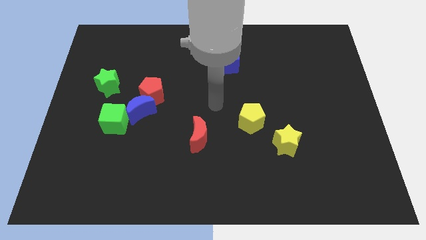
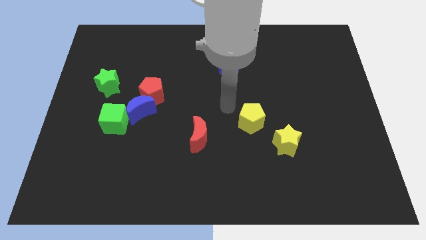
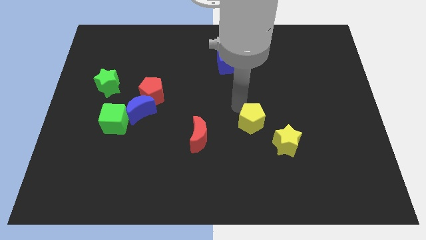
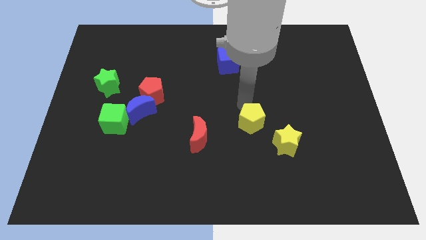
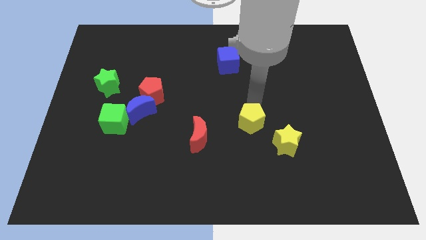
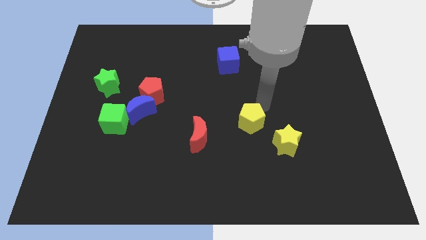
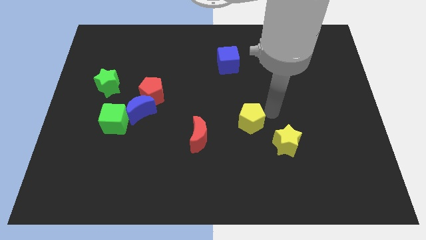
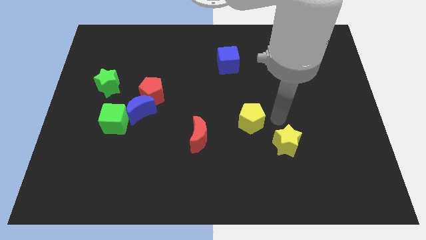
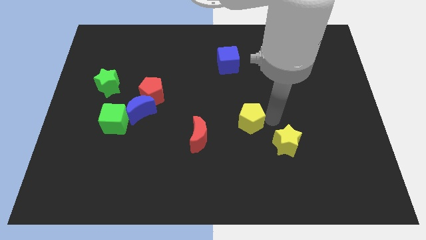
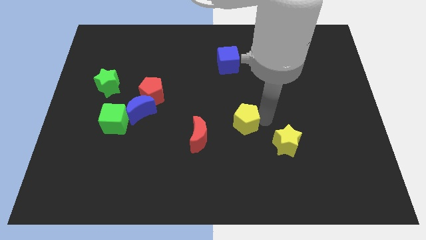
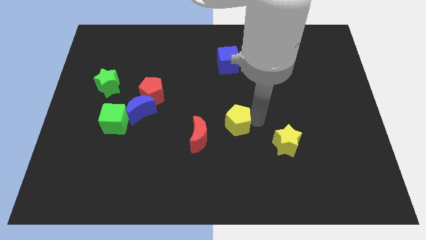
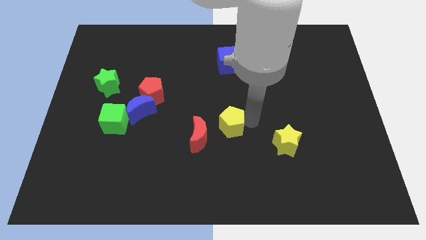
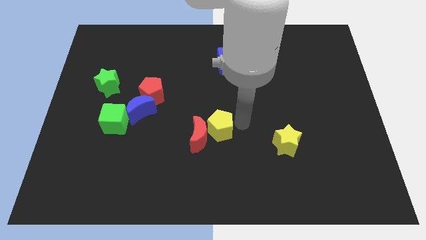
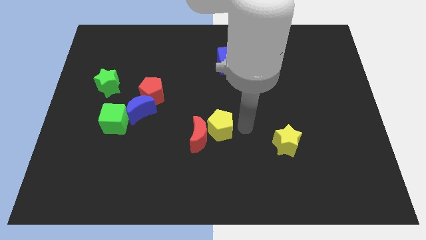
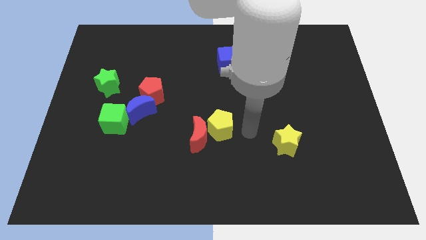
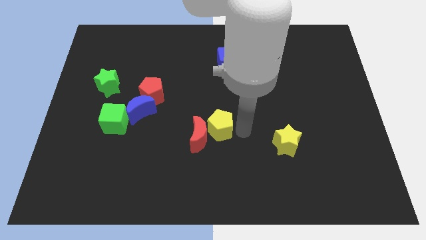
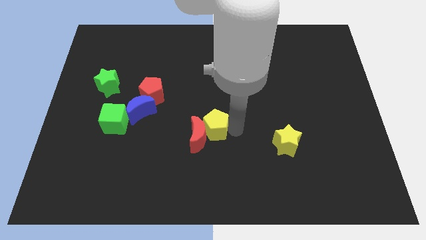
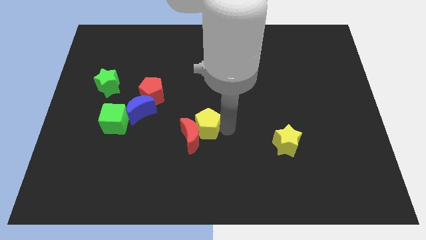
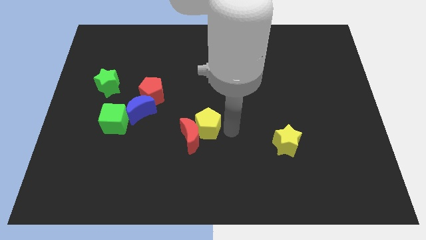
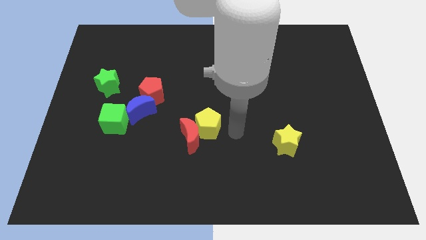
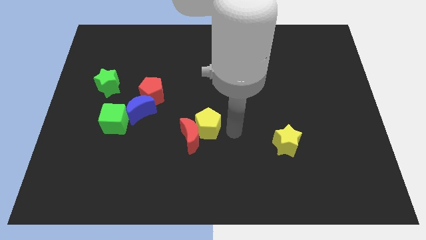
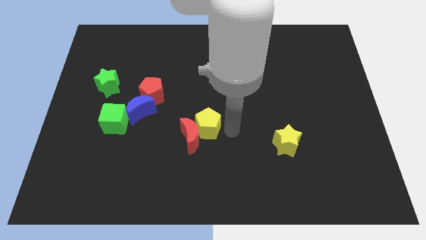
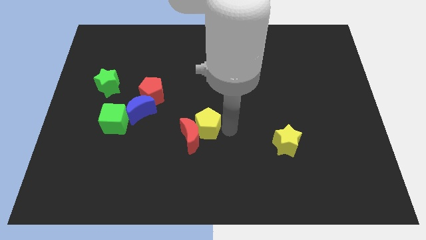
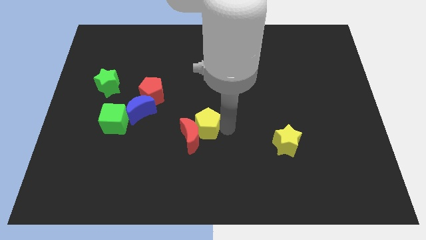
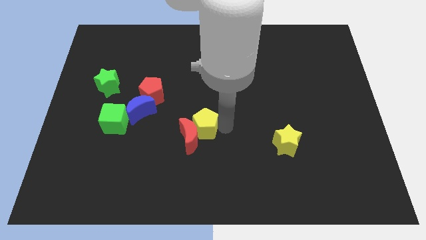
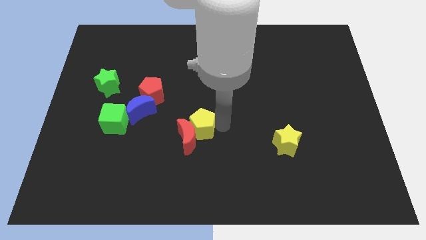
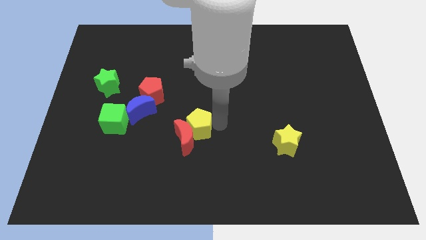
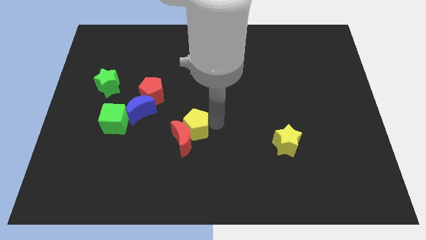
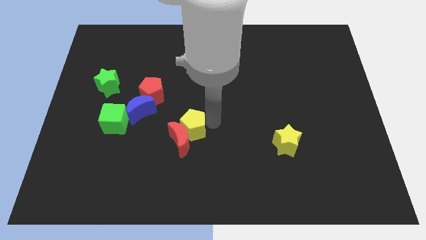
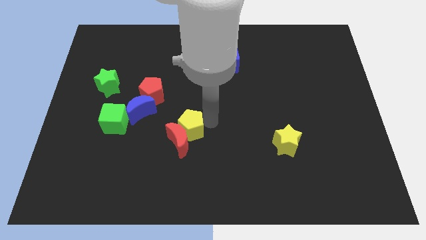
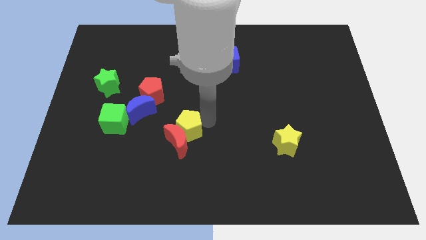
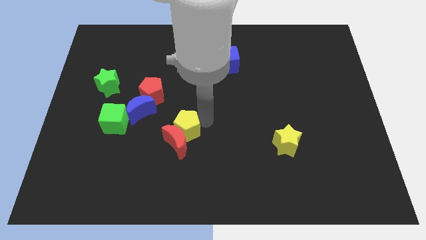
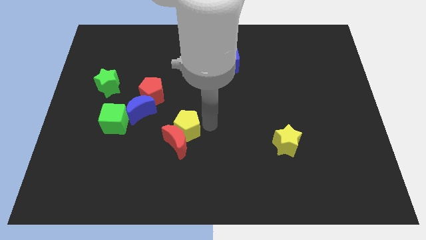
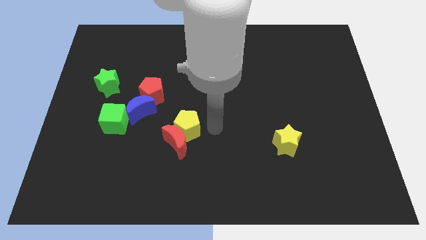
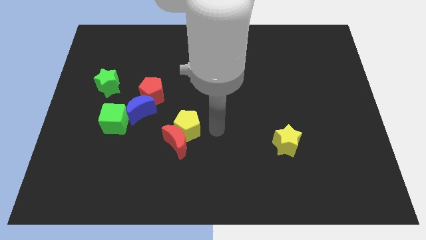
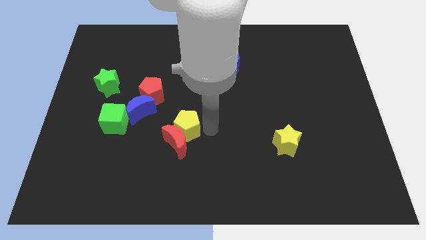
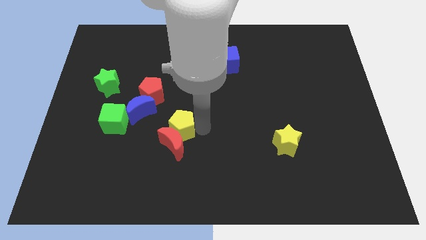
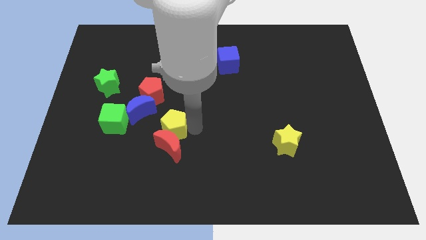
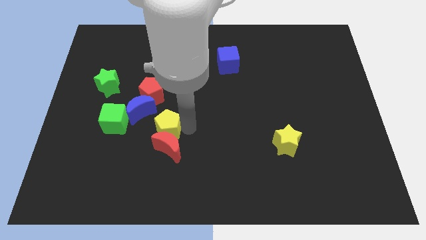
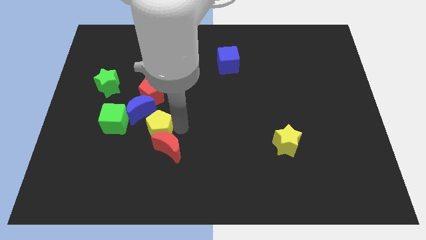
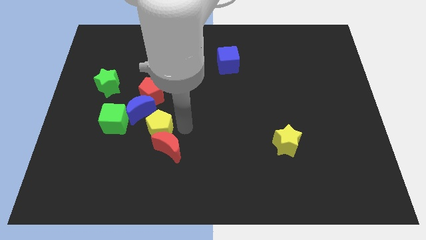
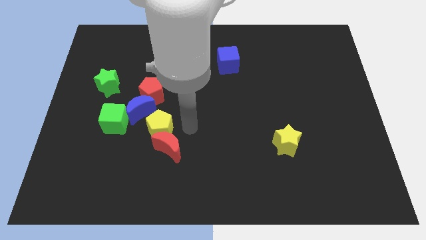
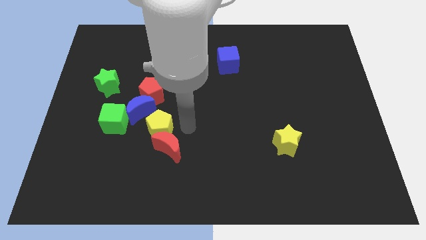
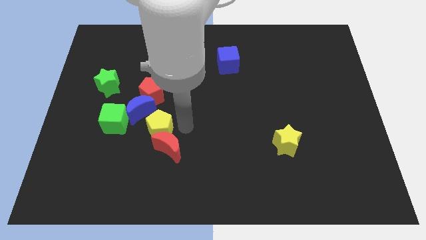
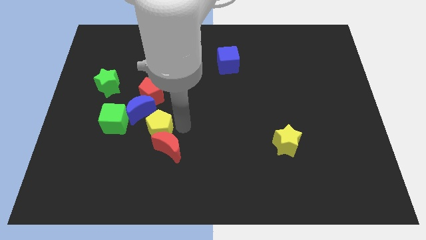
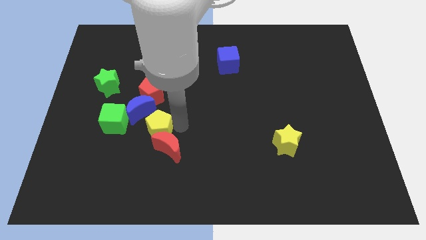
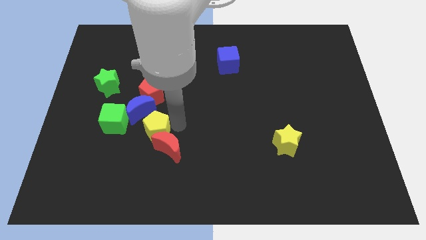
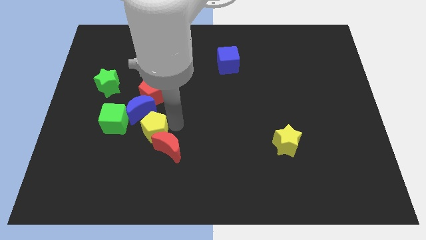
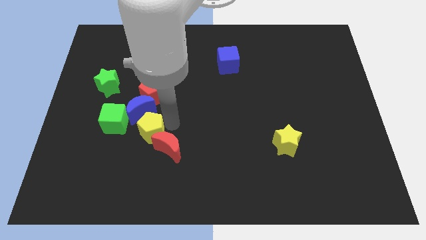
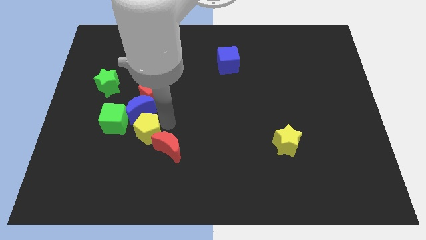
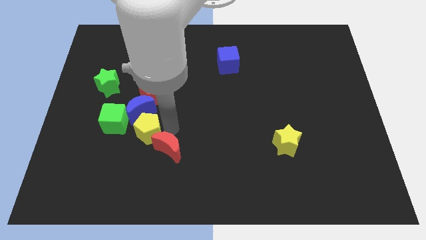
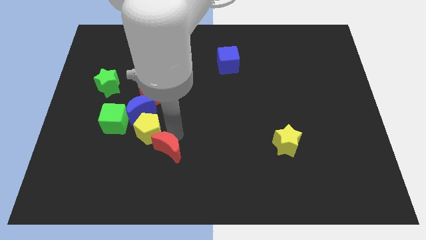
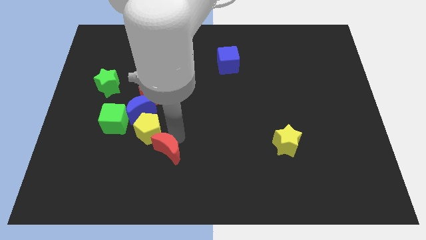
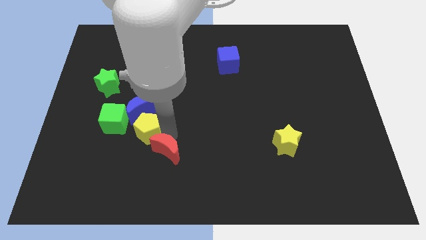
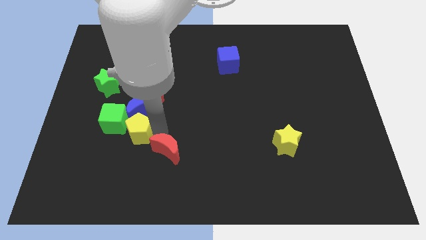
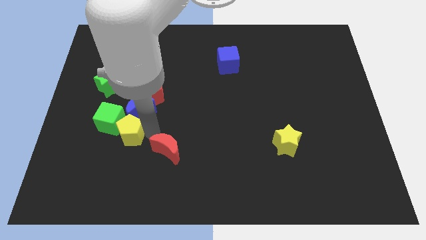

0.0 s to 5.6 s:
slide the yellow pentagon to the green cube

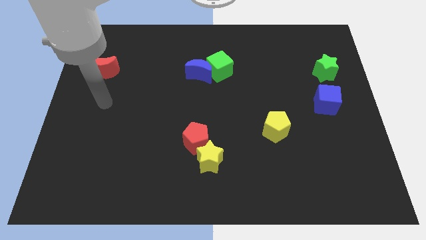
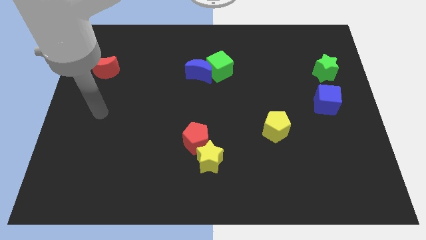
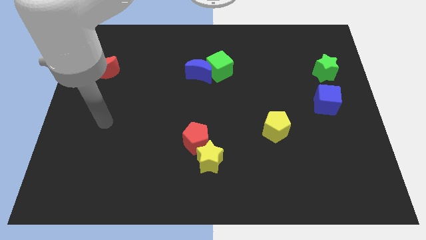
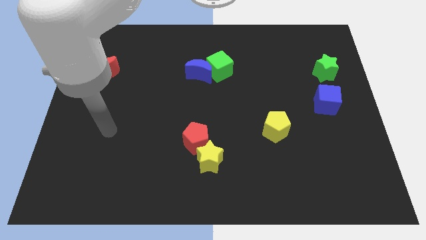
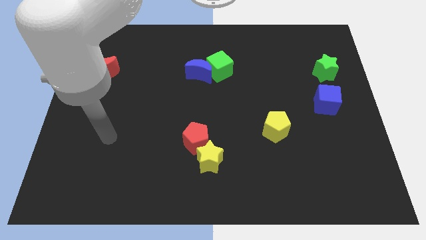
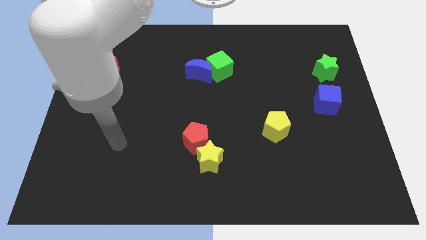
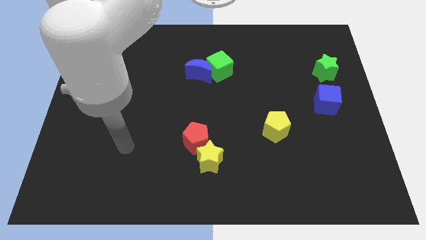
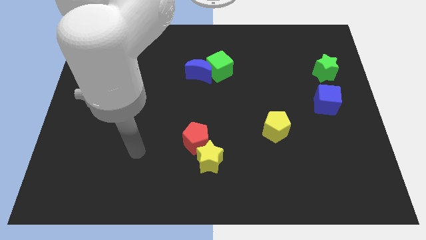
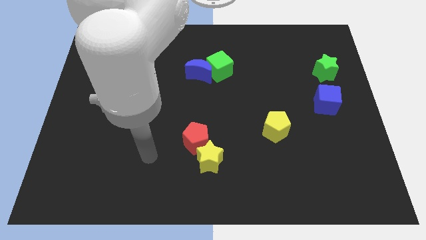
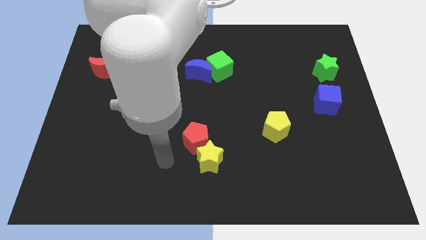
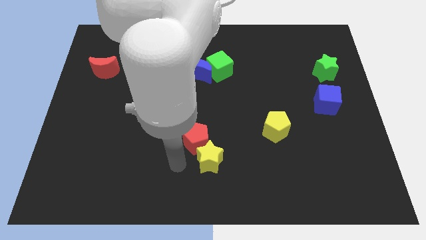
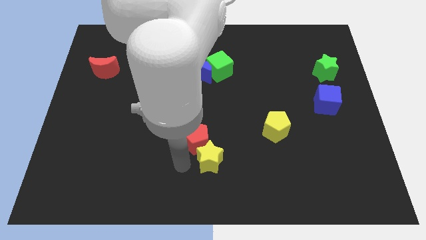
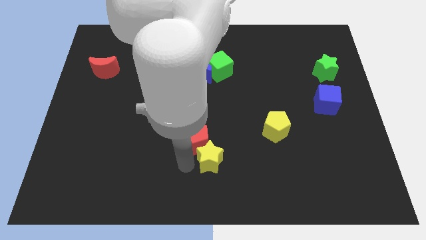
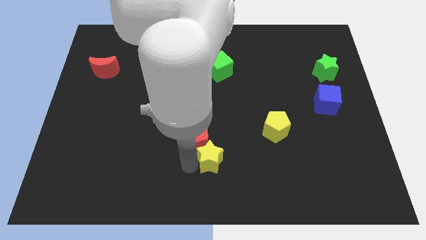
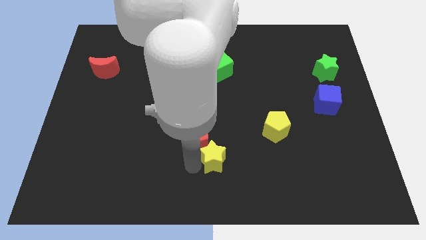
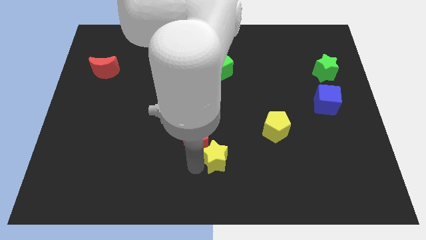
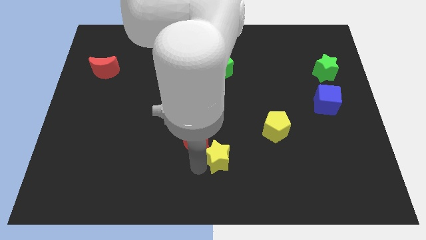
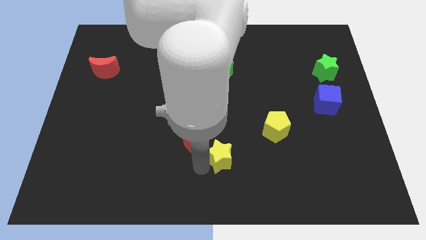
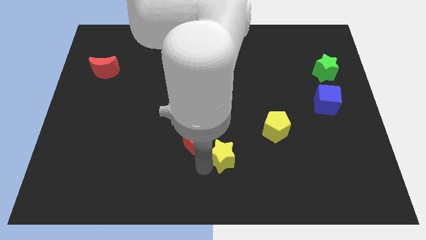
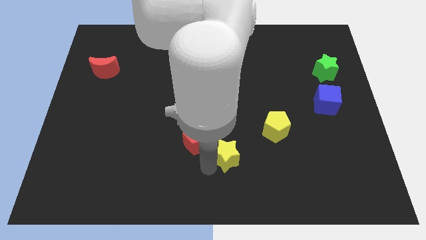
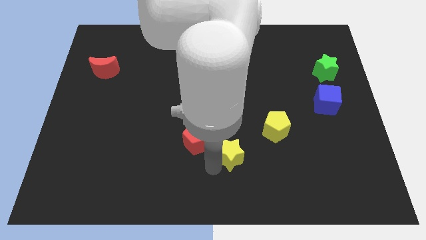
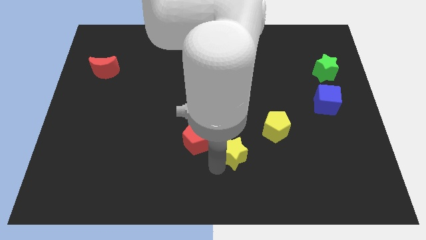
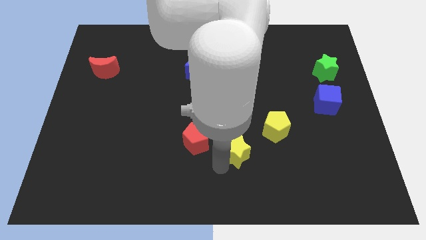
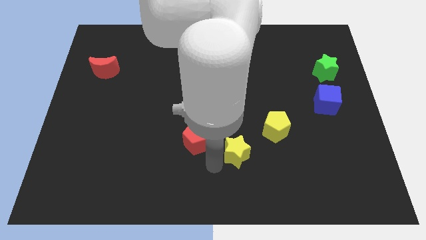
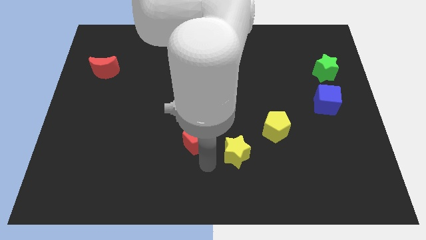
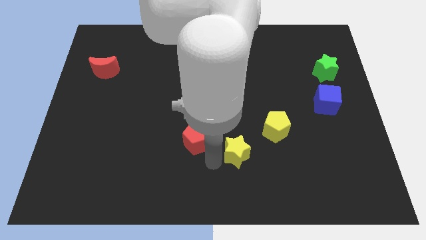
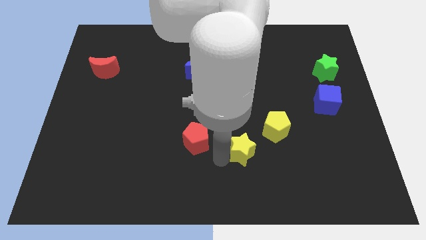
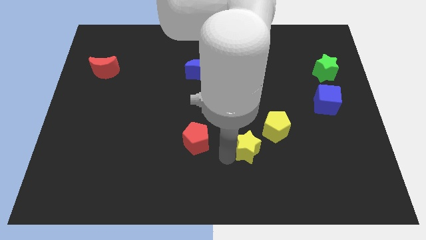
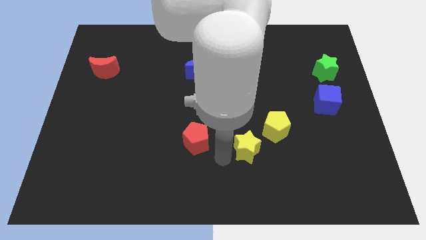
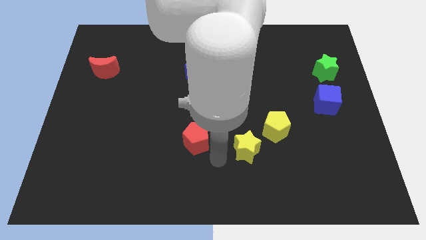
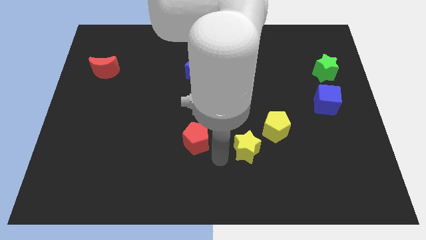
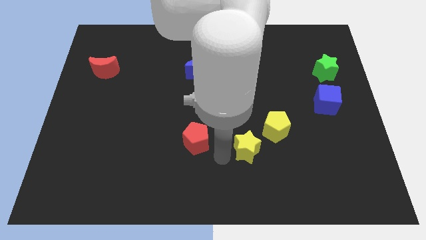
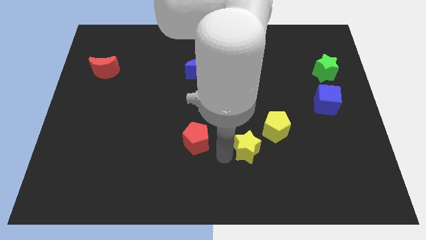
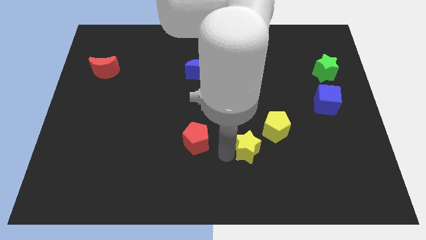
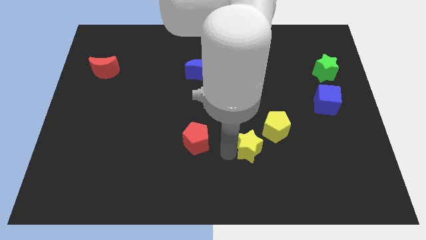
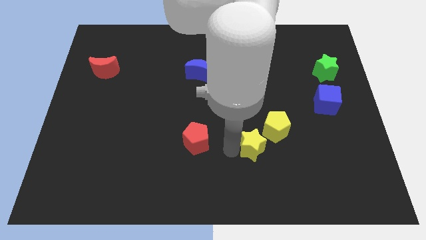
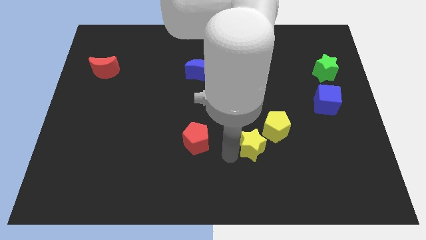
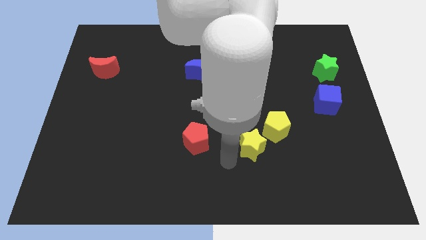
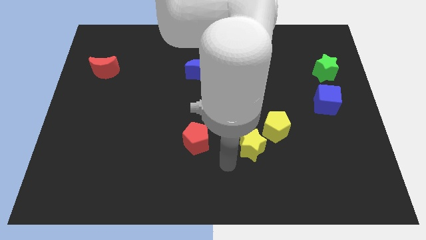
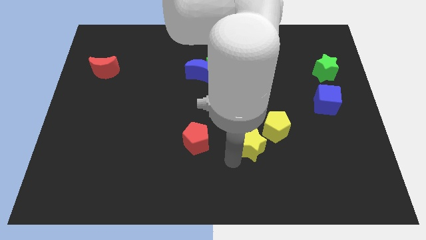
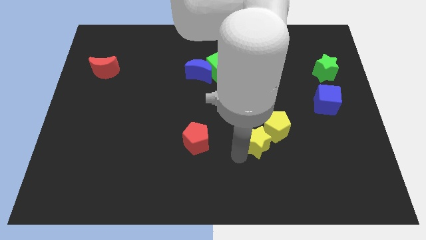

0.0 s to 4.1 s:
put the yellow star close to the yellow pentagon
